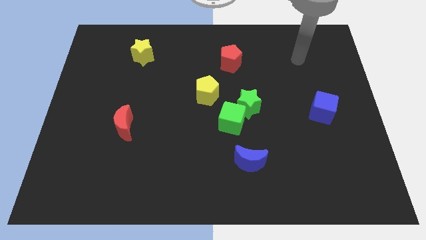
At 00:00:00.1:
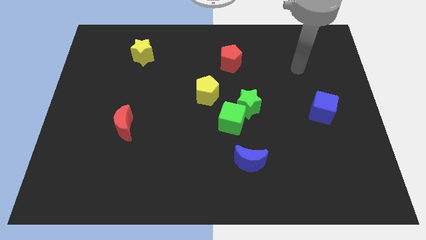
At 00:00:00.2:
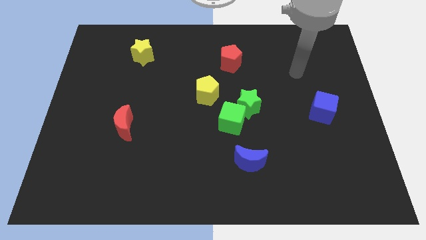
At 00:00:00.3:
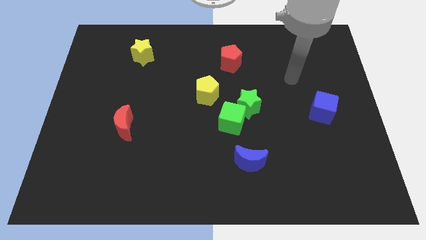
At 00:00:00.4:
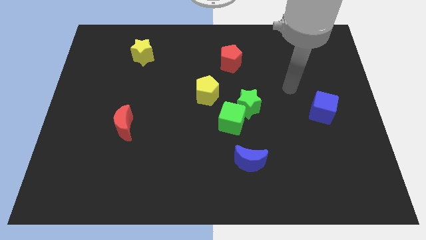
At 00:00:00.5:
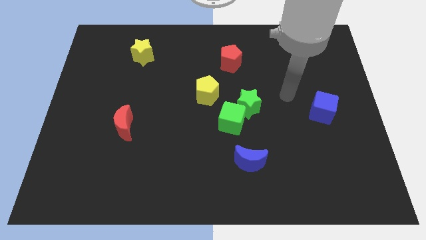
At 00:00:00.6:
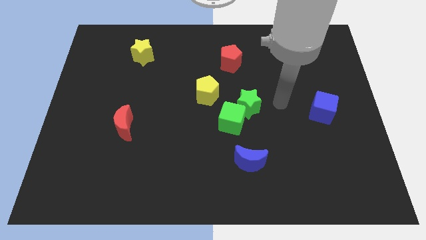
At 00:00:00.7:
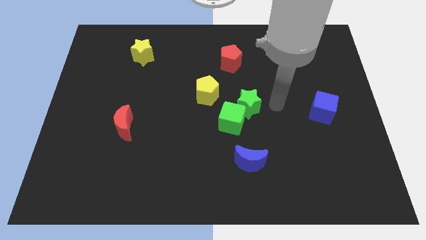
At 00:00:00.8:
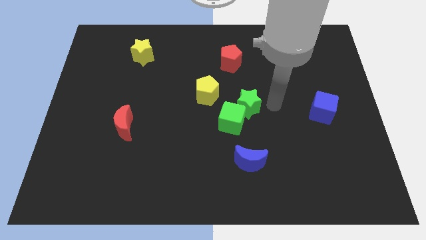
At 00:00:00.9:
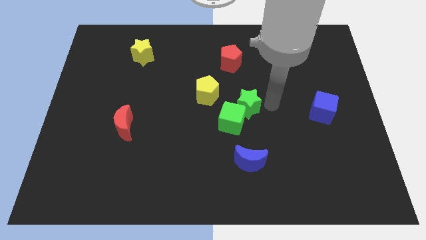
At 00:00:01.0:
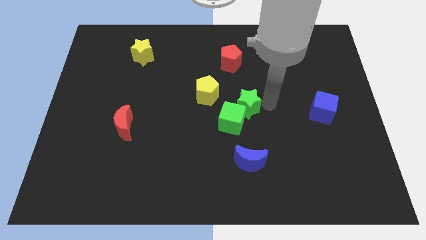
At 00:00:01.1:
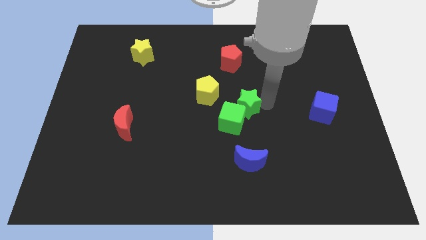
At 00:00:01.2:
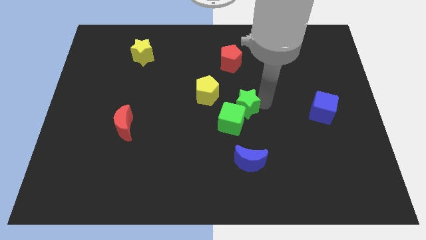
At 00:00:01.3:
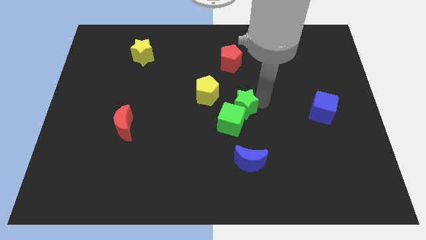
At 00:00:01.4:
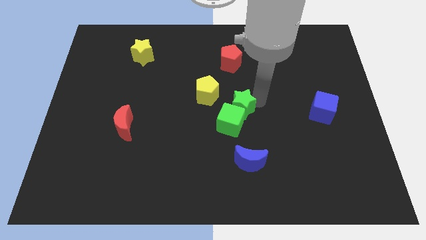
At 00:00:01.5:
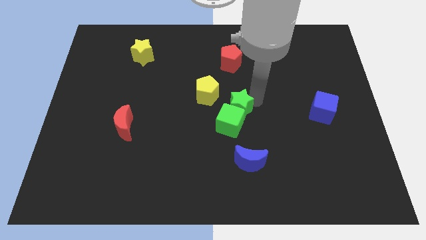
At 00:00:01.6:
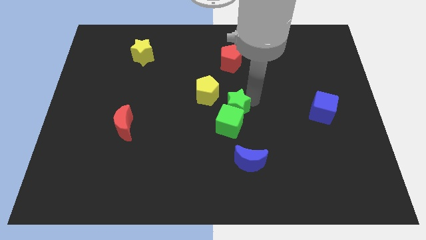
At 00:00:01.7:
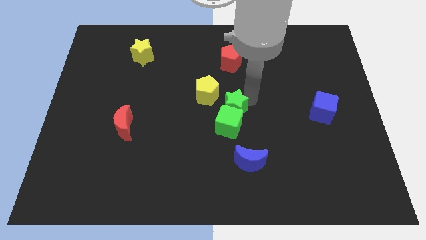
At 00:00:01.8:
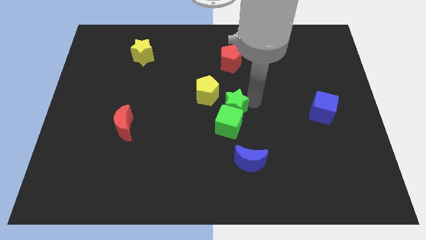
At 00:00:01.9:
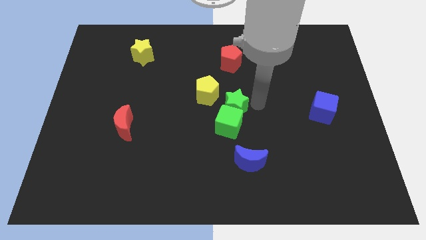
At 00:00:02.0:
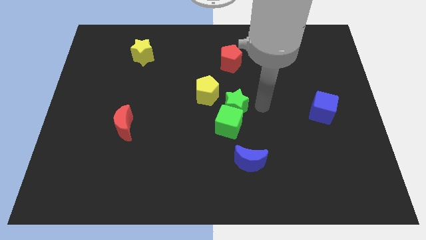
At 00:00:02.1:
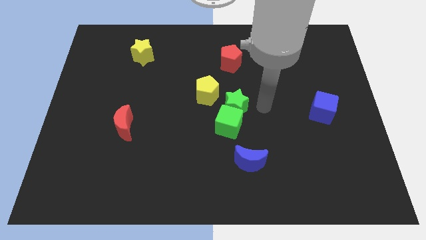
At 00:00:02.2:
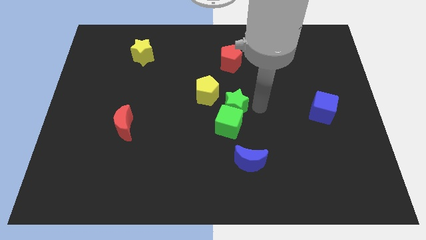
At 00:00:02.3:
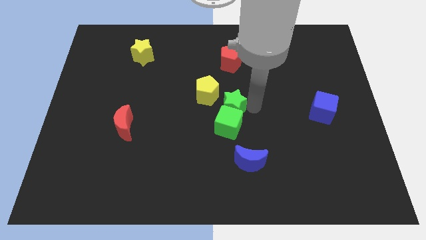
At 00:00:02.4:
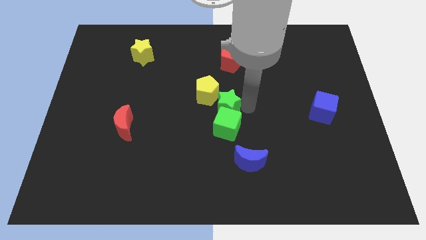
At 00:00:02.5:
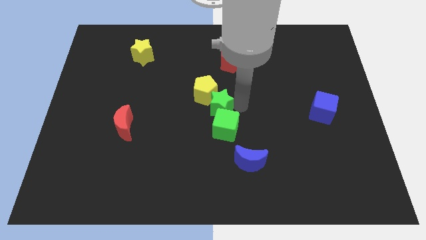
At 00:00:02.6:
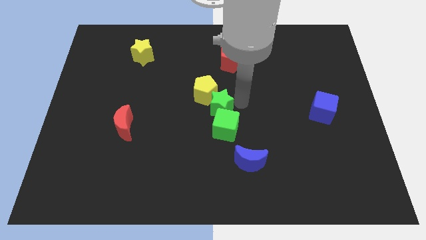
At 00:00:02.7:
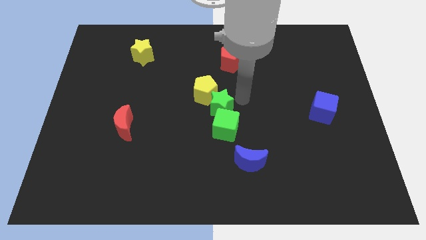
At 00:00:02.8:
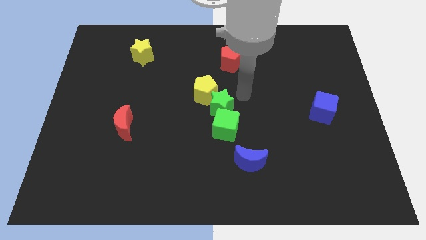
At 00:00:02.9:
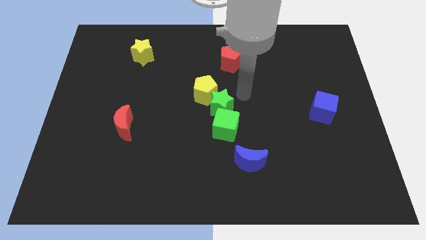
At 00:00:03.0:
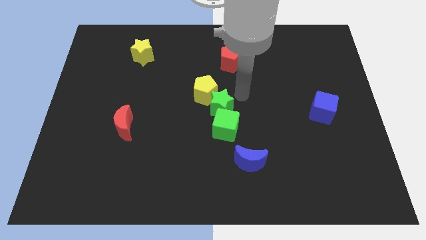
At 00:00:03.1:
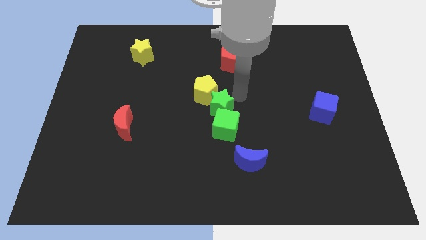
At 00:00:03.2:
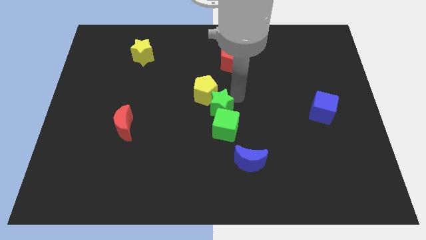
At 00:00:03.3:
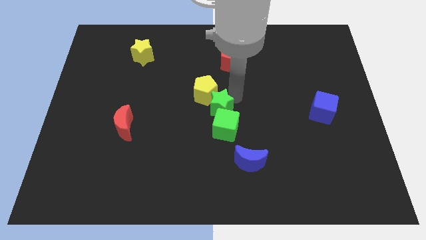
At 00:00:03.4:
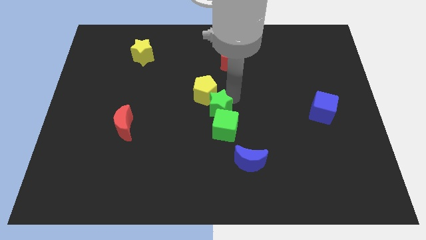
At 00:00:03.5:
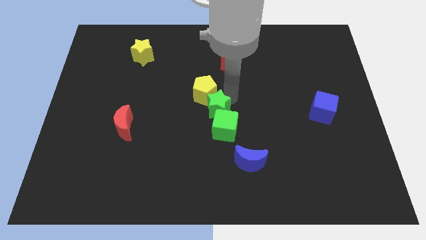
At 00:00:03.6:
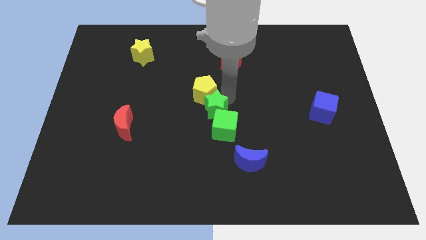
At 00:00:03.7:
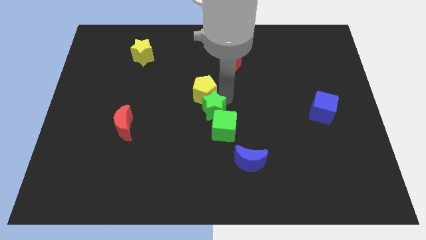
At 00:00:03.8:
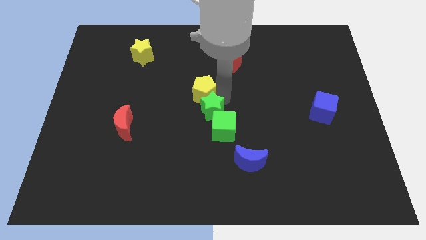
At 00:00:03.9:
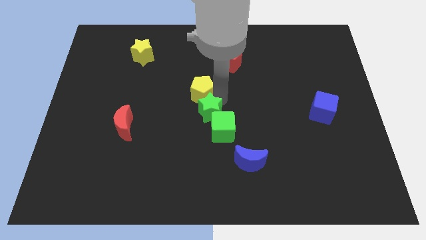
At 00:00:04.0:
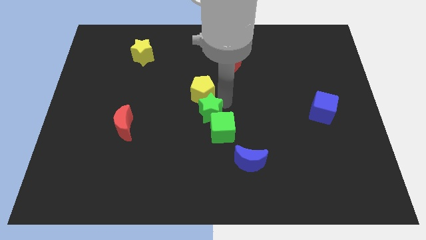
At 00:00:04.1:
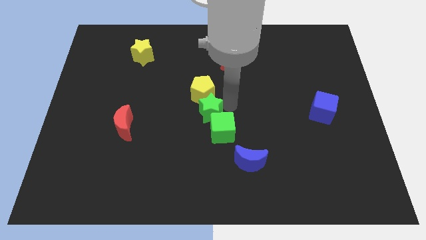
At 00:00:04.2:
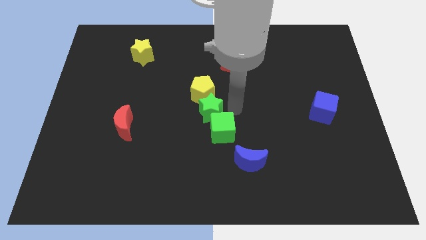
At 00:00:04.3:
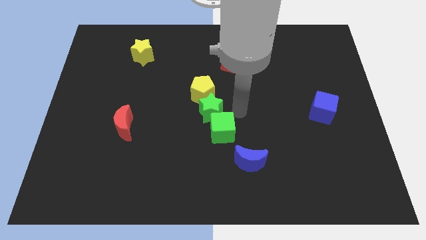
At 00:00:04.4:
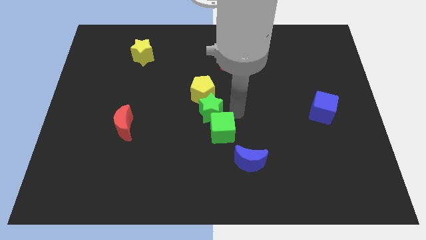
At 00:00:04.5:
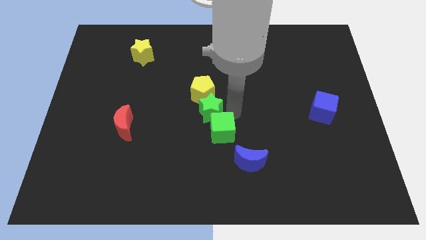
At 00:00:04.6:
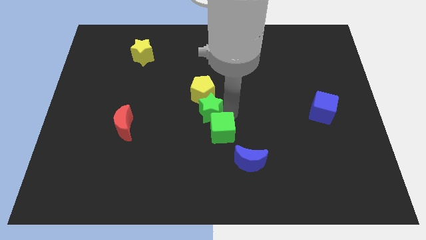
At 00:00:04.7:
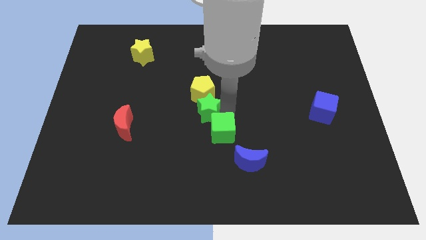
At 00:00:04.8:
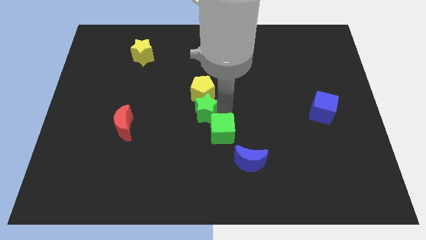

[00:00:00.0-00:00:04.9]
slide the green star to the bottom left of the yellow pentagon

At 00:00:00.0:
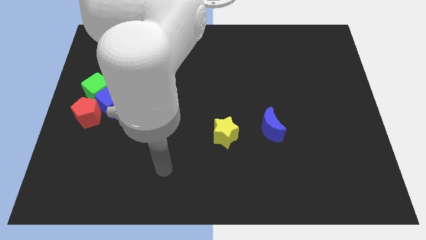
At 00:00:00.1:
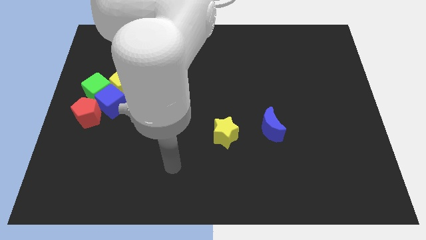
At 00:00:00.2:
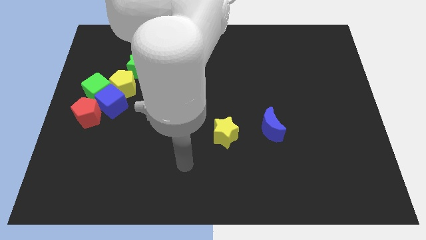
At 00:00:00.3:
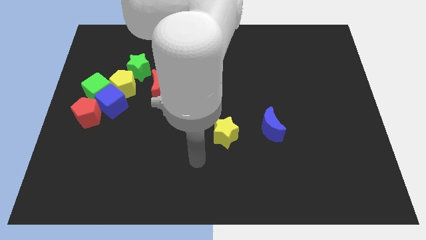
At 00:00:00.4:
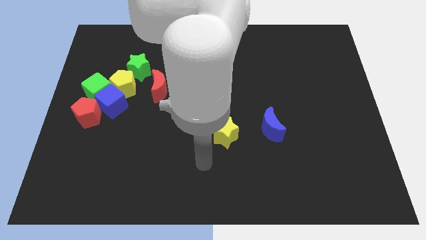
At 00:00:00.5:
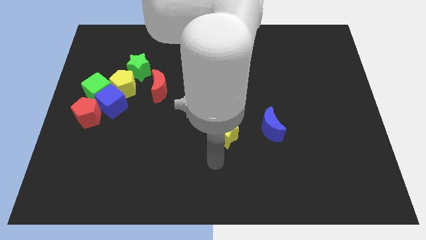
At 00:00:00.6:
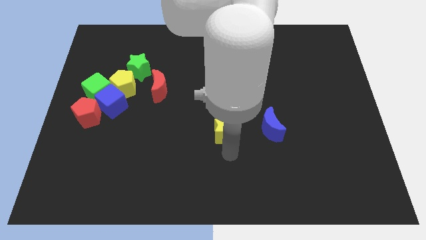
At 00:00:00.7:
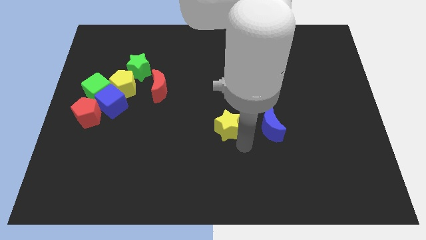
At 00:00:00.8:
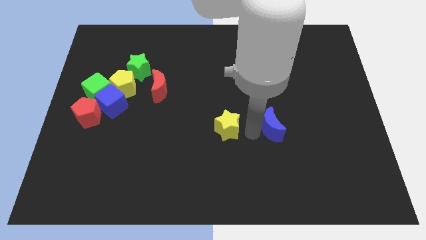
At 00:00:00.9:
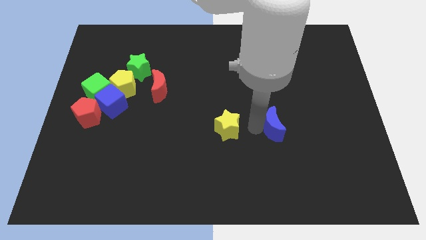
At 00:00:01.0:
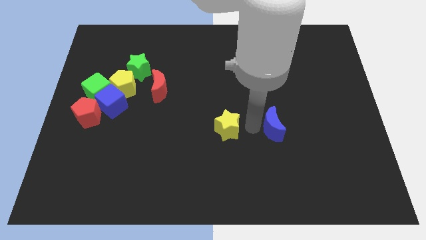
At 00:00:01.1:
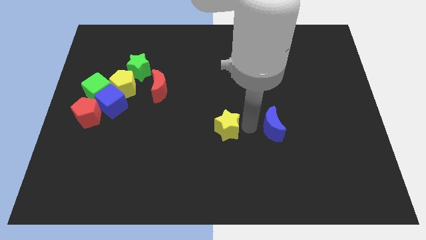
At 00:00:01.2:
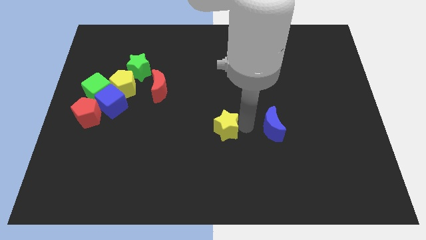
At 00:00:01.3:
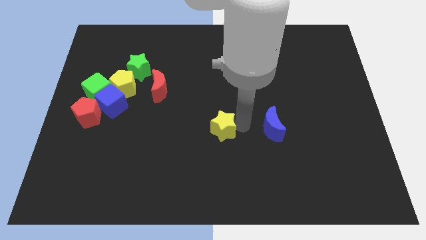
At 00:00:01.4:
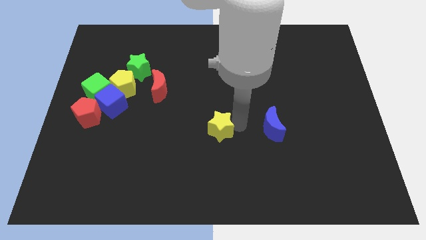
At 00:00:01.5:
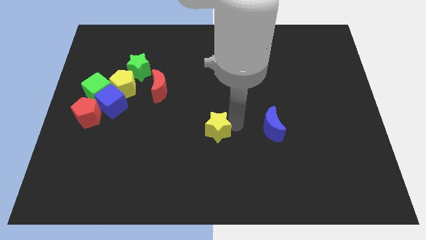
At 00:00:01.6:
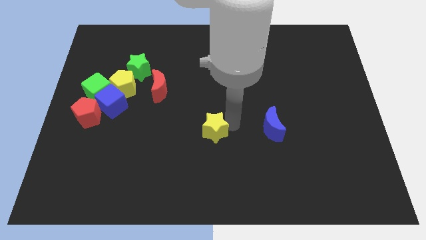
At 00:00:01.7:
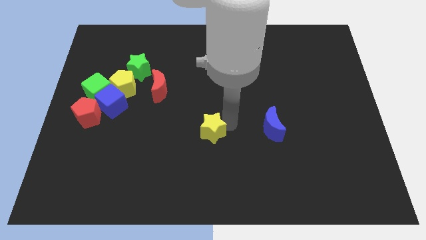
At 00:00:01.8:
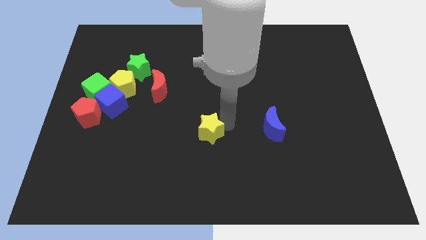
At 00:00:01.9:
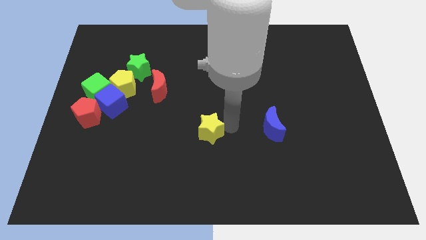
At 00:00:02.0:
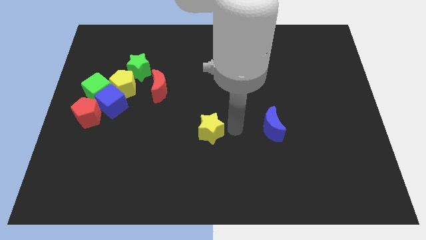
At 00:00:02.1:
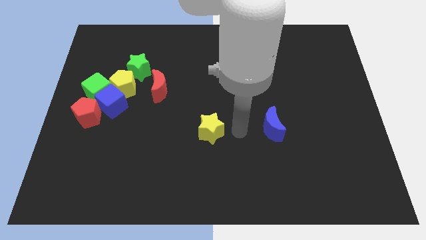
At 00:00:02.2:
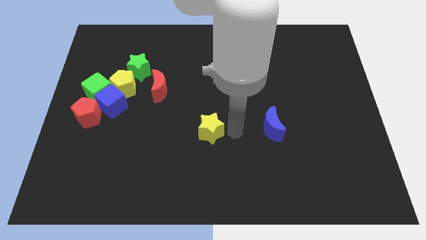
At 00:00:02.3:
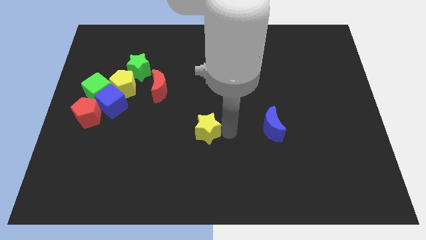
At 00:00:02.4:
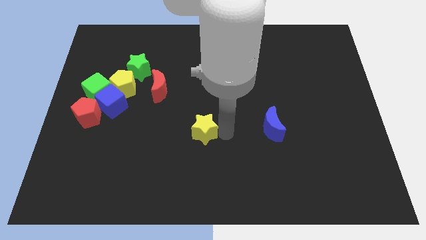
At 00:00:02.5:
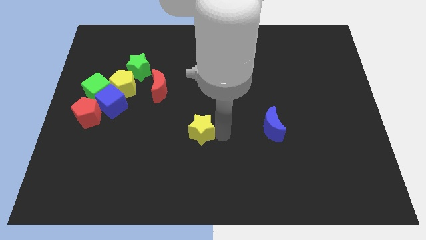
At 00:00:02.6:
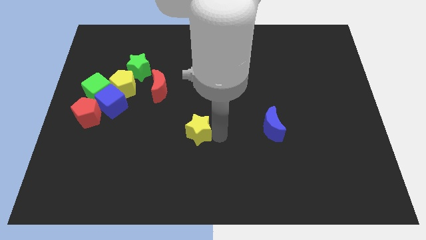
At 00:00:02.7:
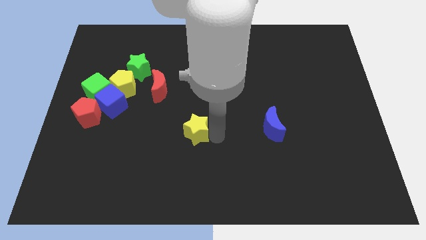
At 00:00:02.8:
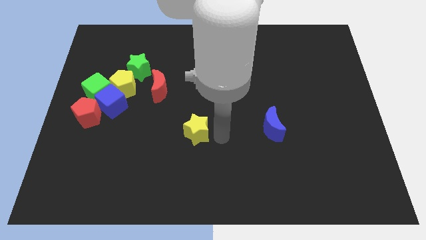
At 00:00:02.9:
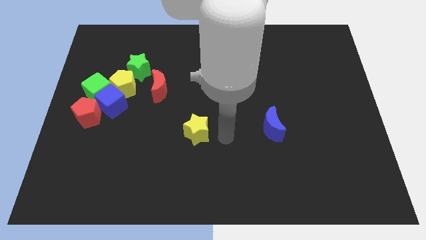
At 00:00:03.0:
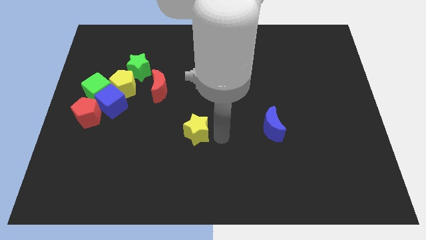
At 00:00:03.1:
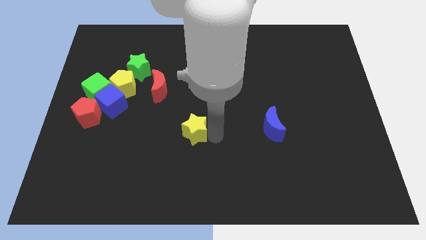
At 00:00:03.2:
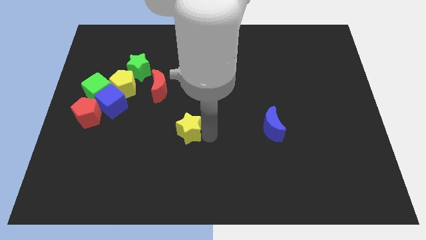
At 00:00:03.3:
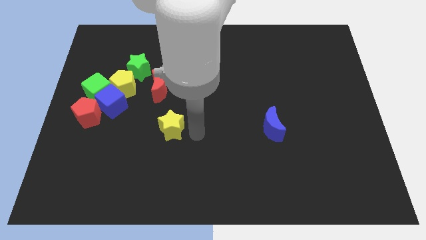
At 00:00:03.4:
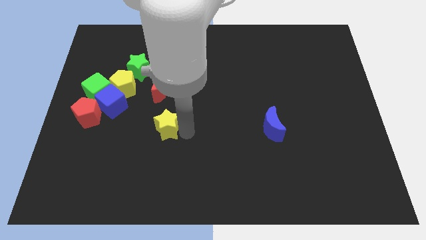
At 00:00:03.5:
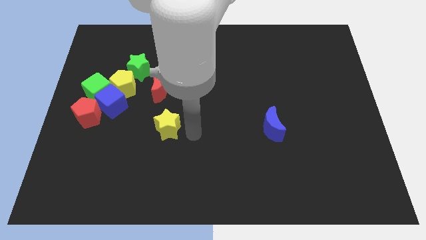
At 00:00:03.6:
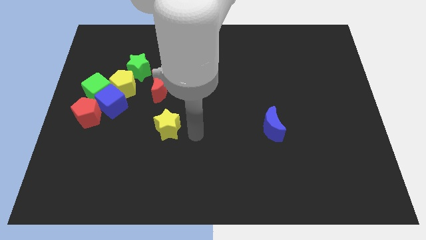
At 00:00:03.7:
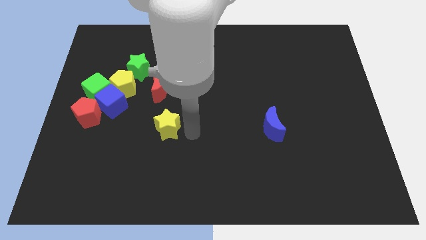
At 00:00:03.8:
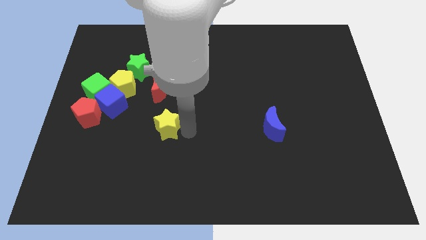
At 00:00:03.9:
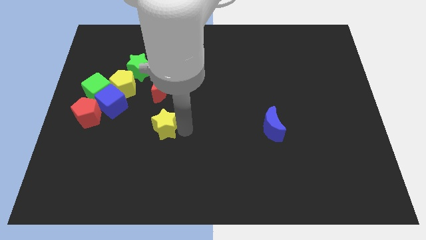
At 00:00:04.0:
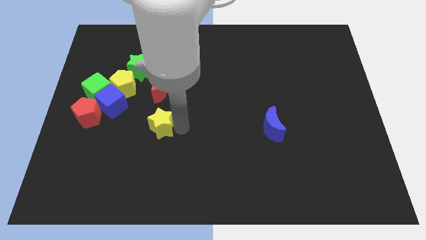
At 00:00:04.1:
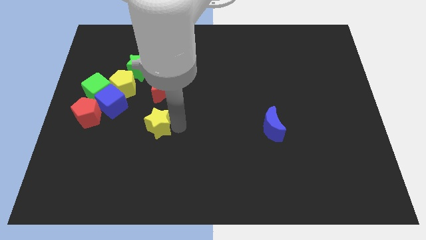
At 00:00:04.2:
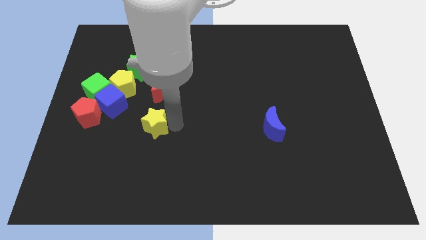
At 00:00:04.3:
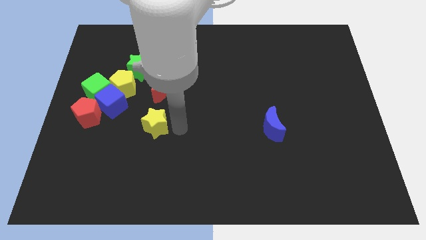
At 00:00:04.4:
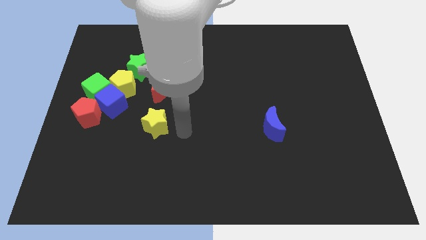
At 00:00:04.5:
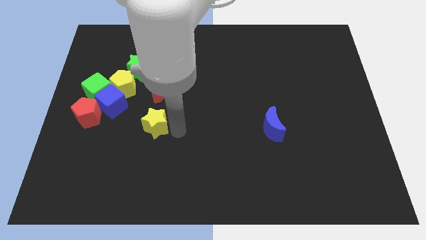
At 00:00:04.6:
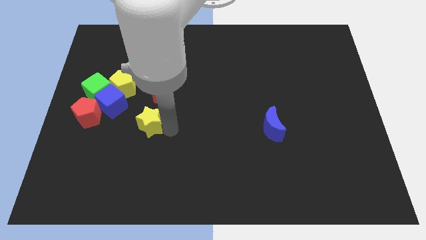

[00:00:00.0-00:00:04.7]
slide the yellow star to the bottom right side of the blue cube
